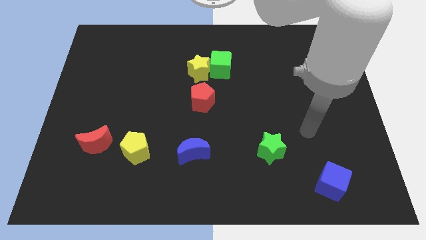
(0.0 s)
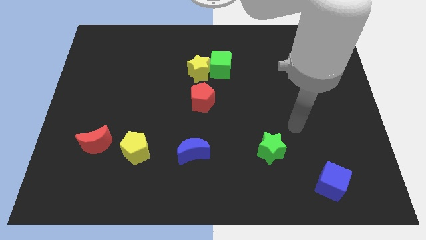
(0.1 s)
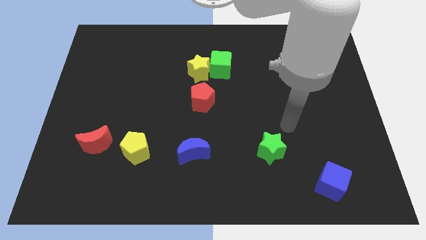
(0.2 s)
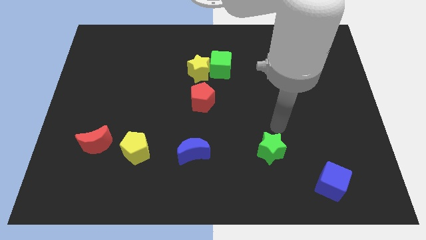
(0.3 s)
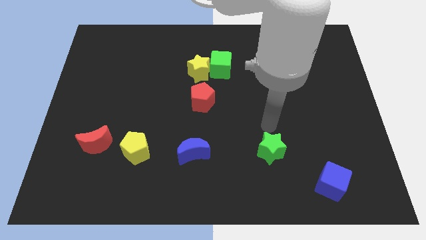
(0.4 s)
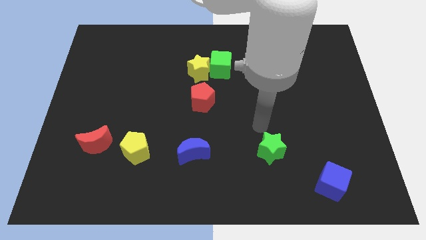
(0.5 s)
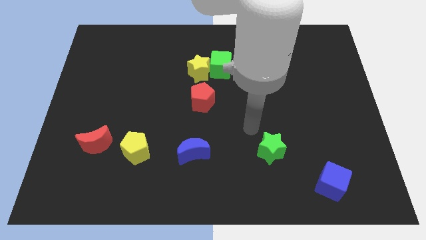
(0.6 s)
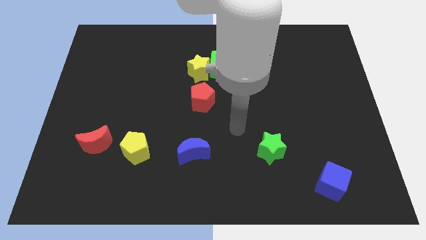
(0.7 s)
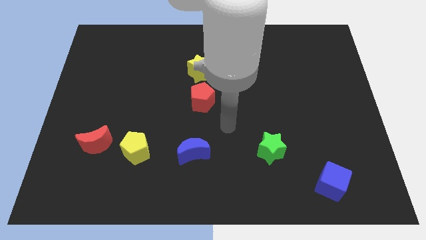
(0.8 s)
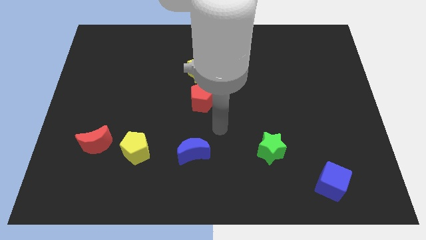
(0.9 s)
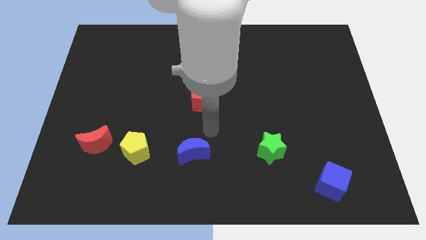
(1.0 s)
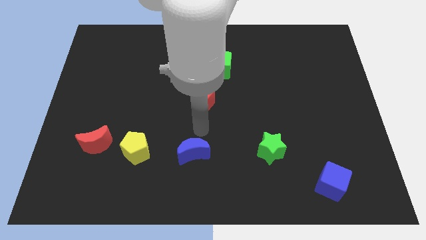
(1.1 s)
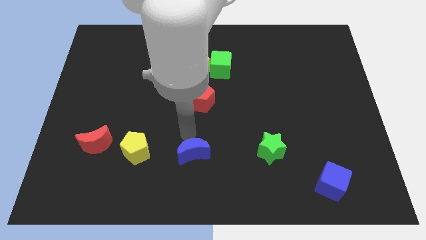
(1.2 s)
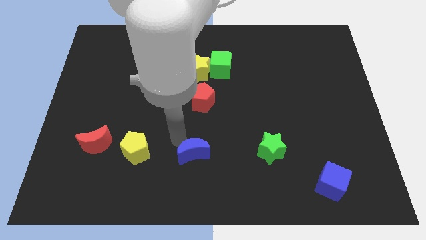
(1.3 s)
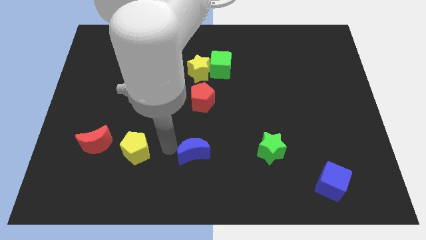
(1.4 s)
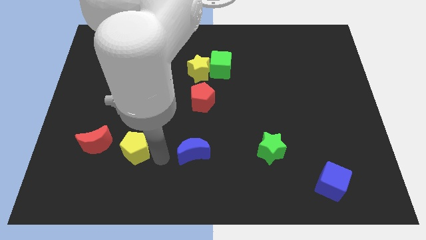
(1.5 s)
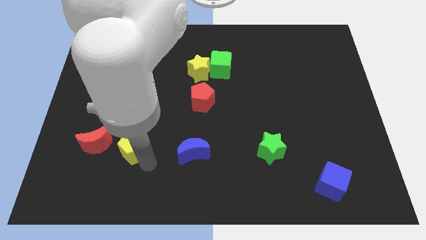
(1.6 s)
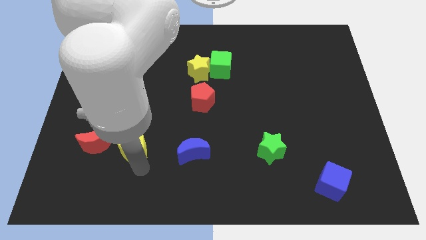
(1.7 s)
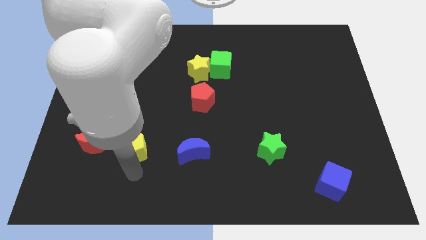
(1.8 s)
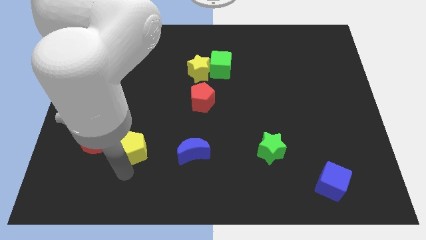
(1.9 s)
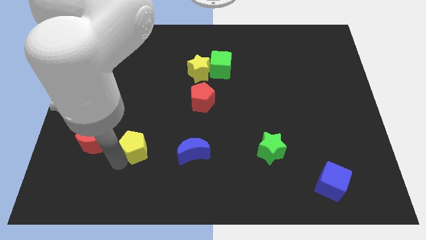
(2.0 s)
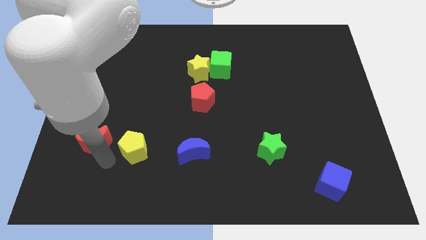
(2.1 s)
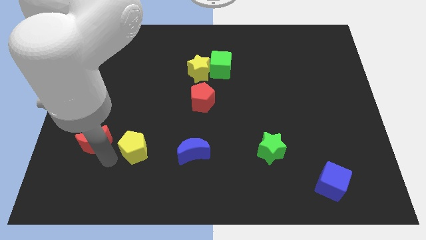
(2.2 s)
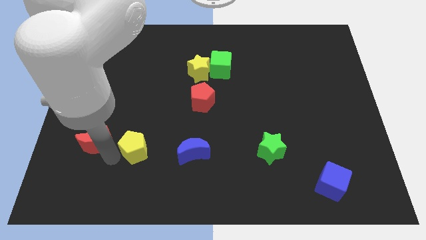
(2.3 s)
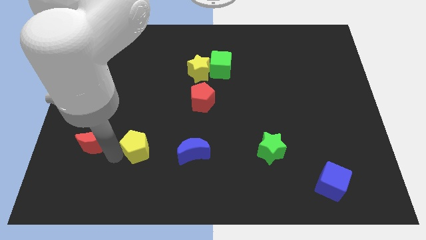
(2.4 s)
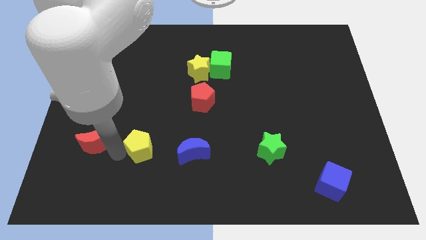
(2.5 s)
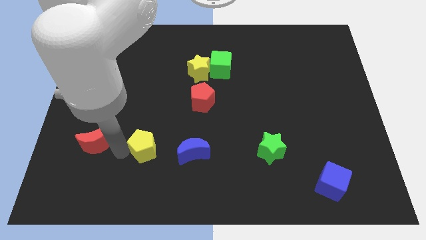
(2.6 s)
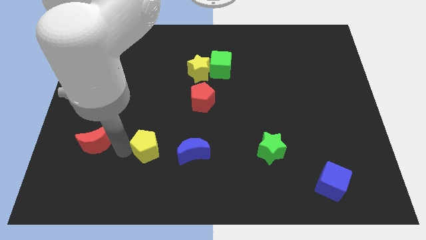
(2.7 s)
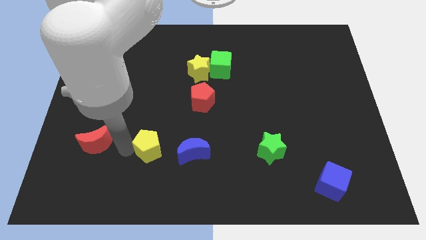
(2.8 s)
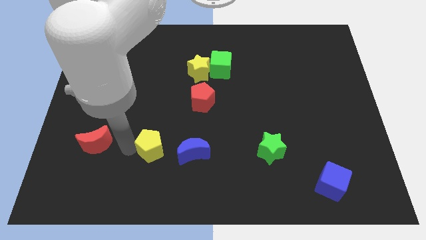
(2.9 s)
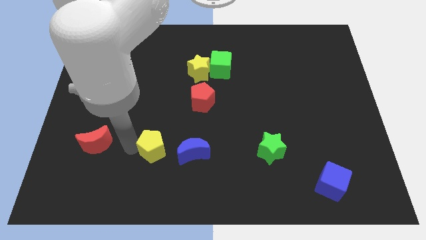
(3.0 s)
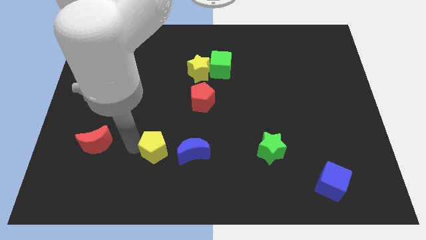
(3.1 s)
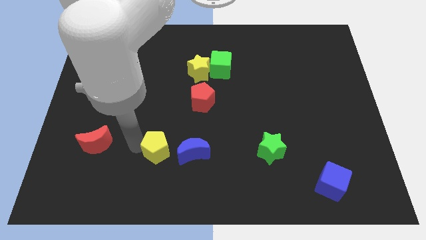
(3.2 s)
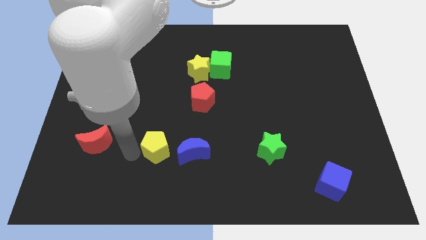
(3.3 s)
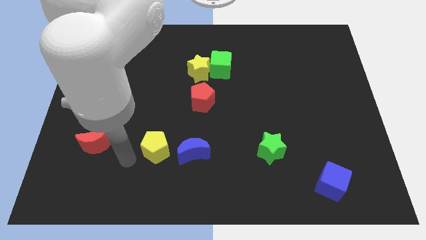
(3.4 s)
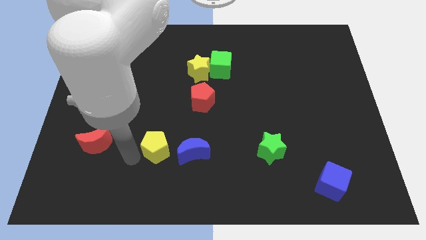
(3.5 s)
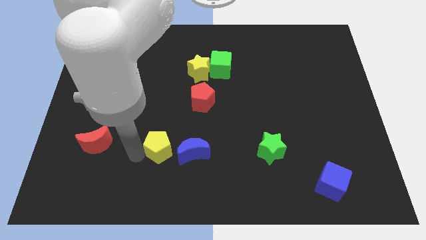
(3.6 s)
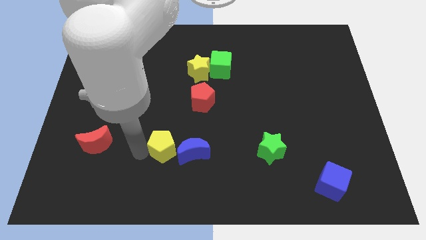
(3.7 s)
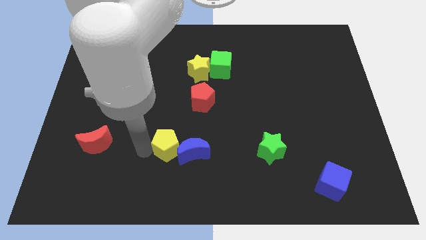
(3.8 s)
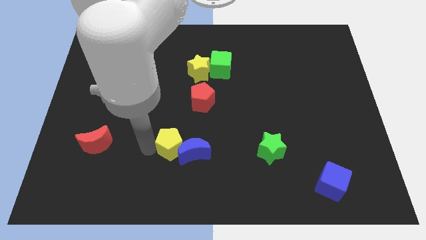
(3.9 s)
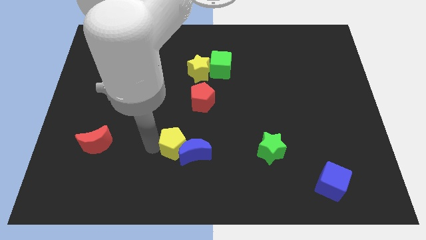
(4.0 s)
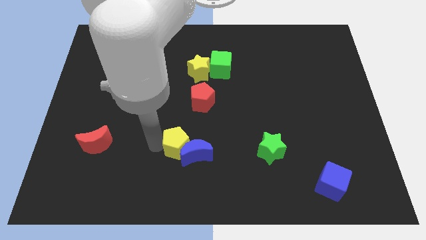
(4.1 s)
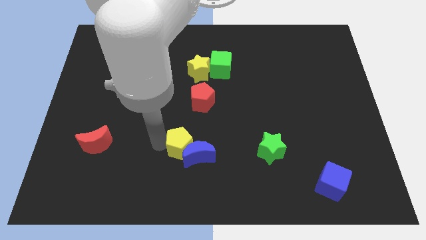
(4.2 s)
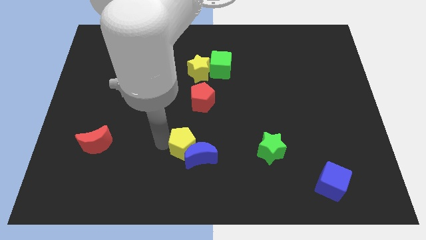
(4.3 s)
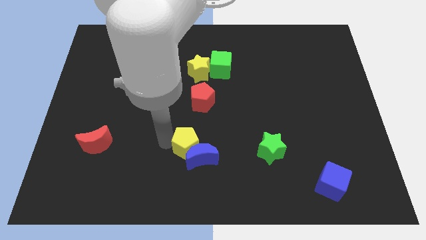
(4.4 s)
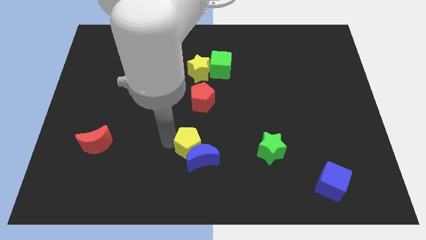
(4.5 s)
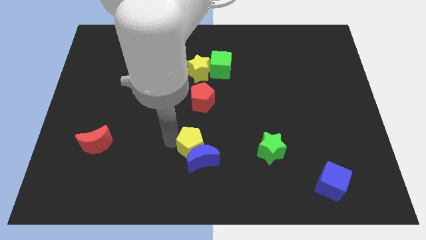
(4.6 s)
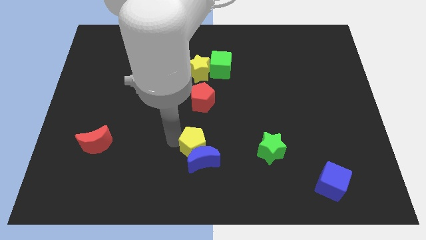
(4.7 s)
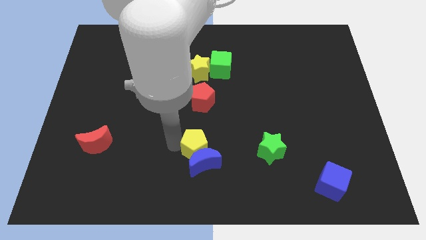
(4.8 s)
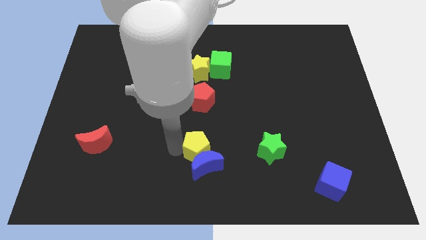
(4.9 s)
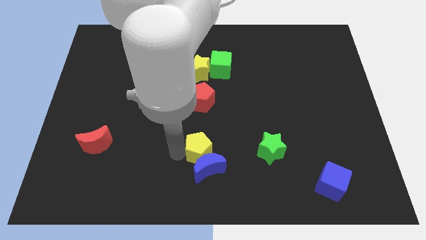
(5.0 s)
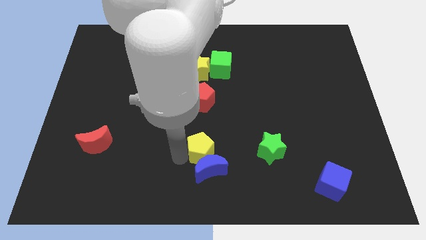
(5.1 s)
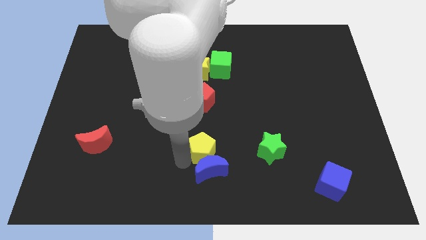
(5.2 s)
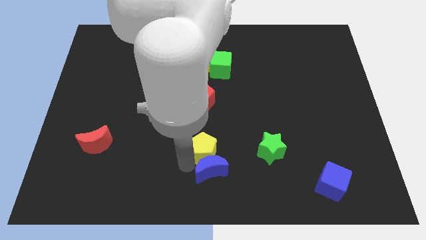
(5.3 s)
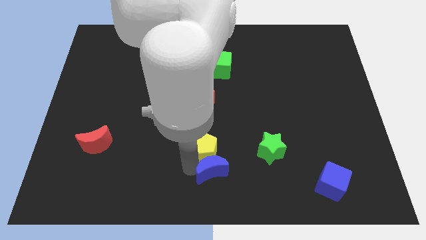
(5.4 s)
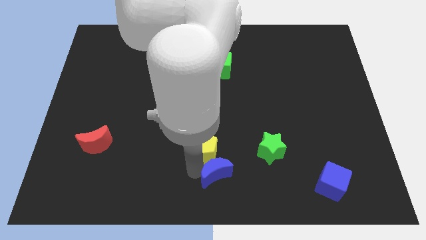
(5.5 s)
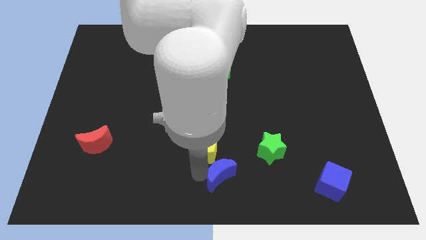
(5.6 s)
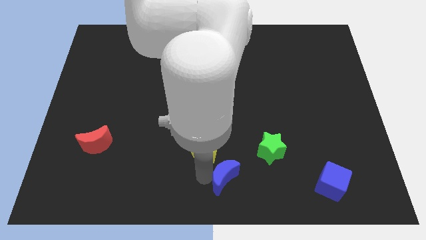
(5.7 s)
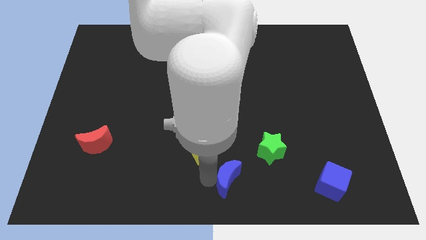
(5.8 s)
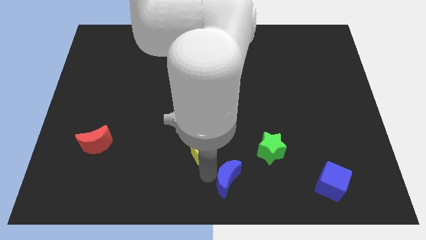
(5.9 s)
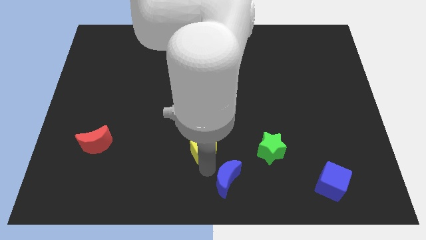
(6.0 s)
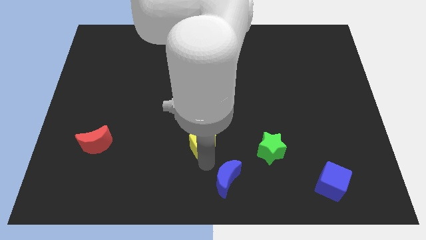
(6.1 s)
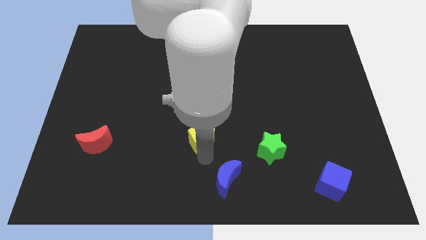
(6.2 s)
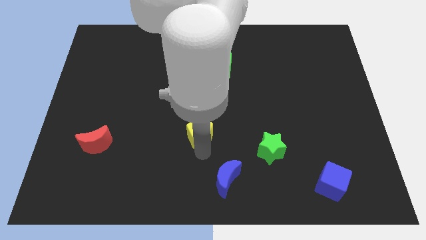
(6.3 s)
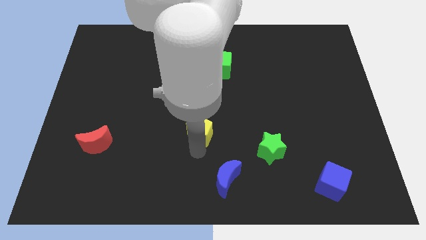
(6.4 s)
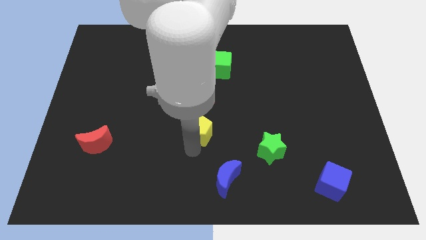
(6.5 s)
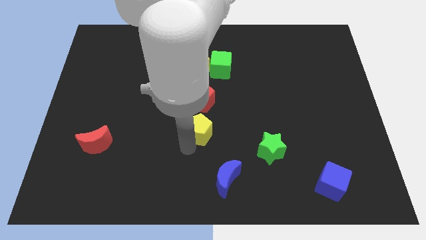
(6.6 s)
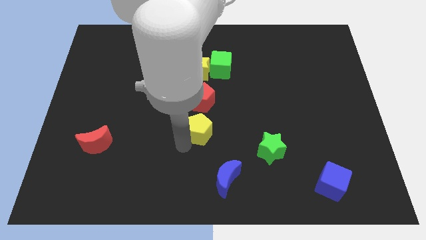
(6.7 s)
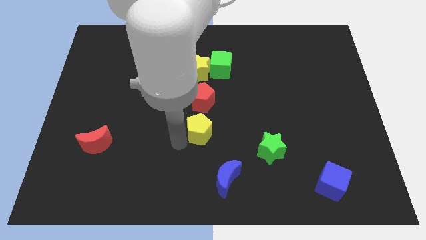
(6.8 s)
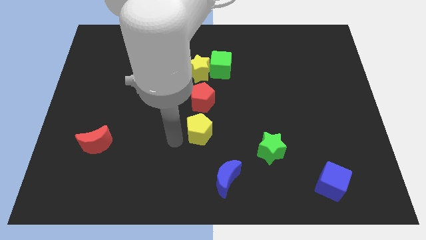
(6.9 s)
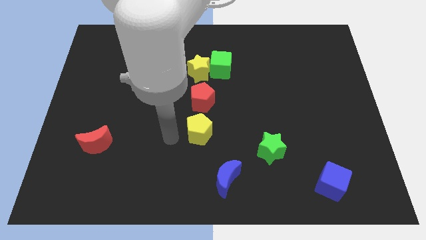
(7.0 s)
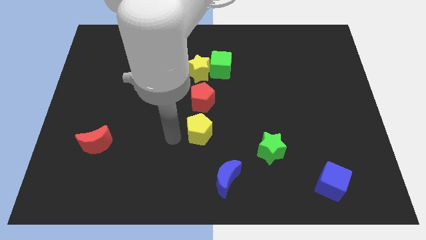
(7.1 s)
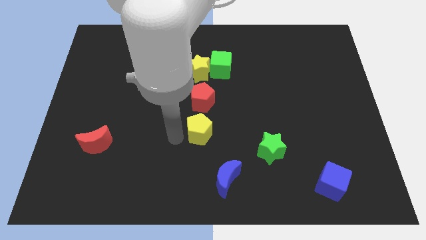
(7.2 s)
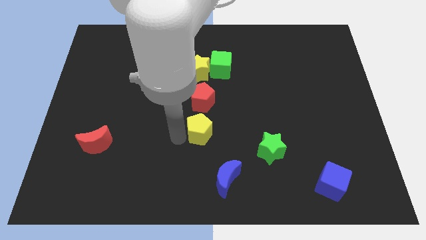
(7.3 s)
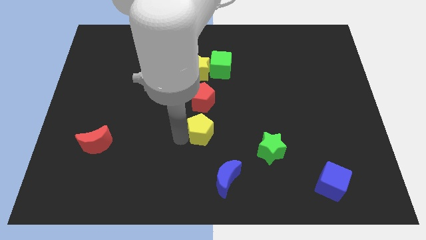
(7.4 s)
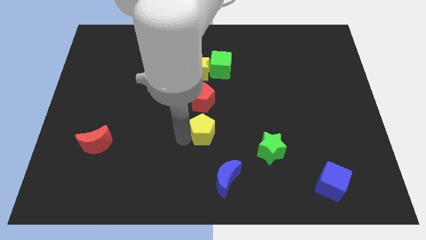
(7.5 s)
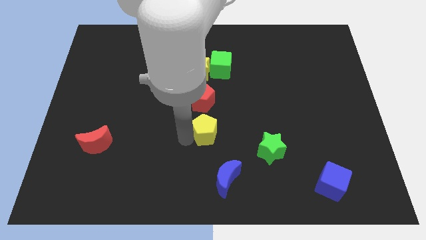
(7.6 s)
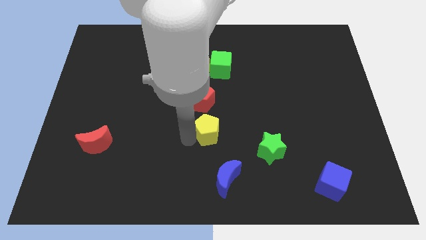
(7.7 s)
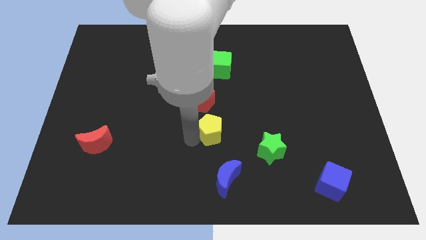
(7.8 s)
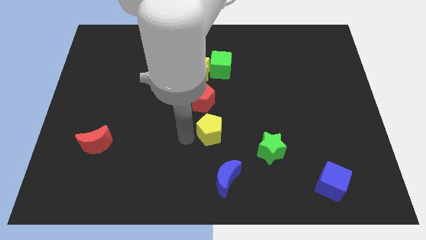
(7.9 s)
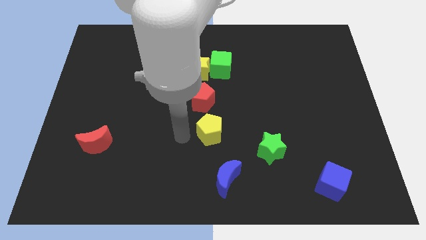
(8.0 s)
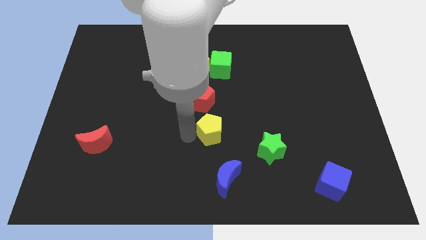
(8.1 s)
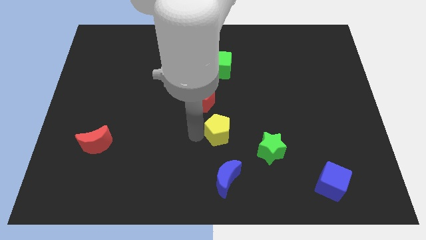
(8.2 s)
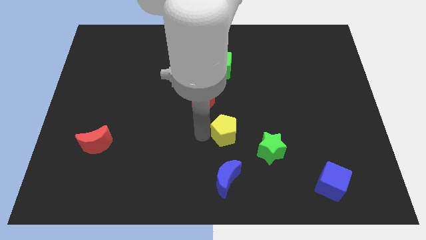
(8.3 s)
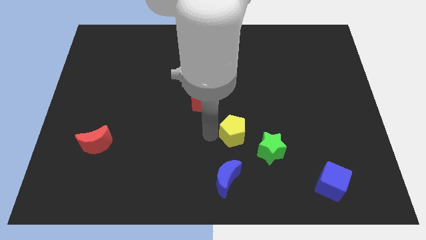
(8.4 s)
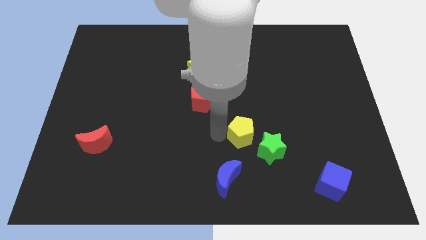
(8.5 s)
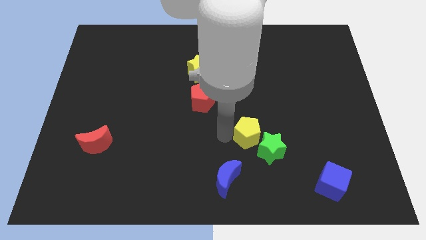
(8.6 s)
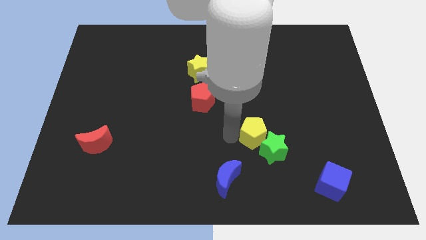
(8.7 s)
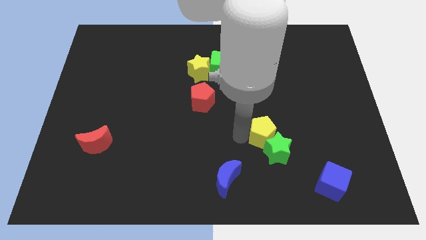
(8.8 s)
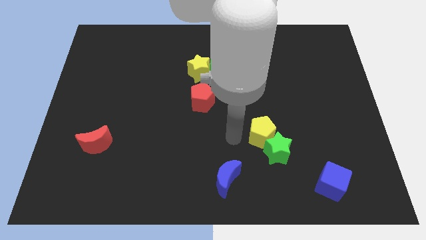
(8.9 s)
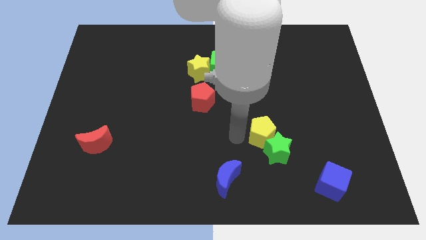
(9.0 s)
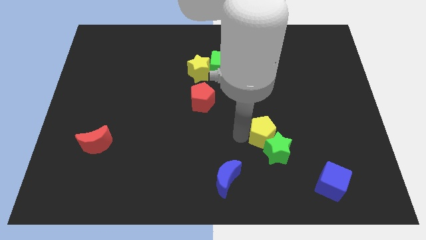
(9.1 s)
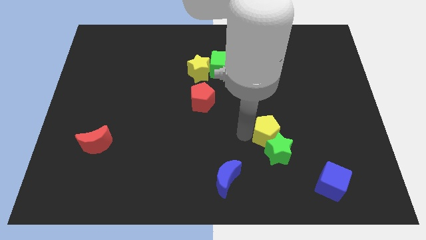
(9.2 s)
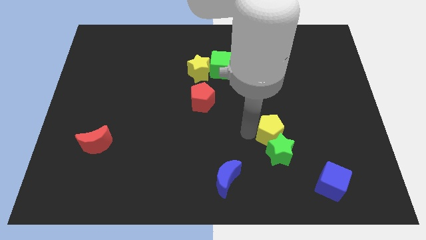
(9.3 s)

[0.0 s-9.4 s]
move the yellow pentagon diagonally up and to the right of the green star
